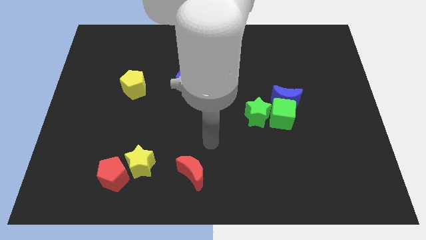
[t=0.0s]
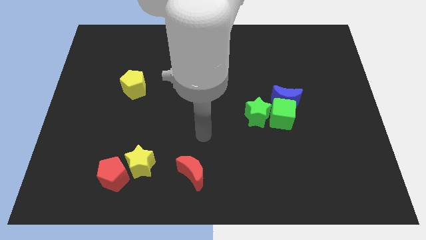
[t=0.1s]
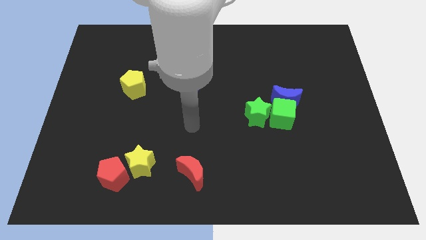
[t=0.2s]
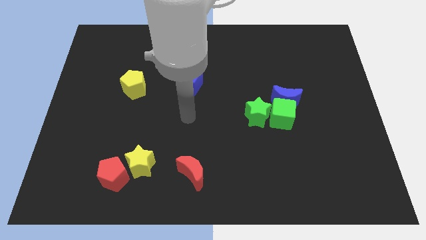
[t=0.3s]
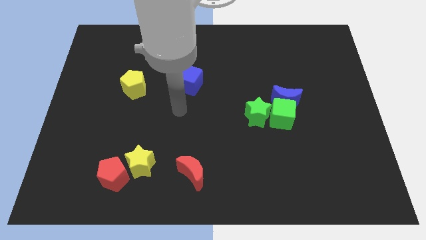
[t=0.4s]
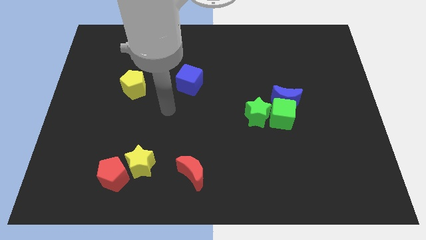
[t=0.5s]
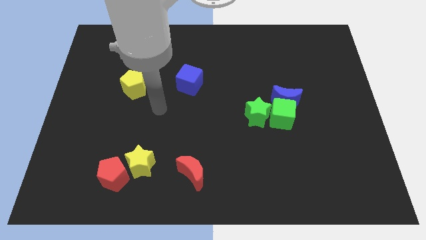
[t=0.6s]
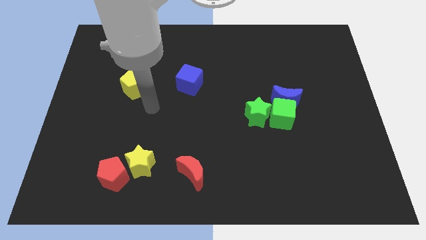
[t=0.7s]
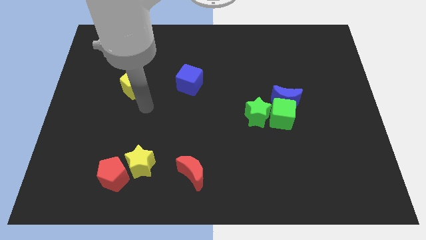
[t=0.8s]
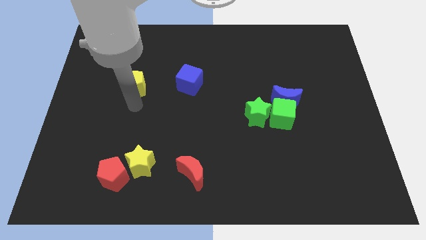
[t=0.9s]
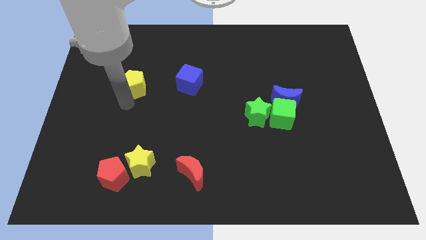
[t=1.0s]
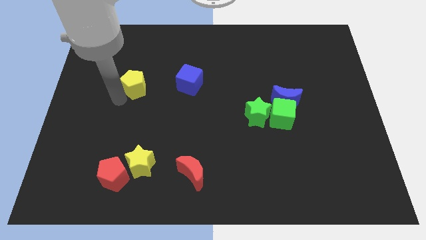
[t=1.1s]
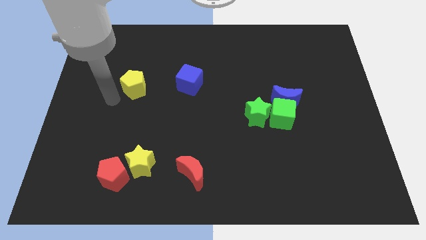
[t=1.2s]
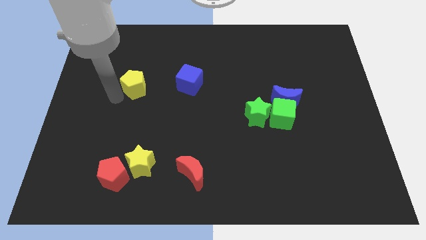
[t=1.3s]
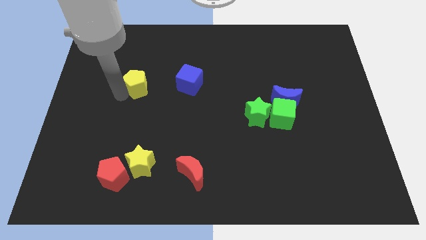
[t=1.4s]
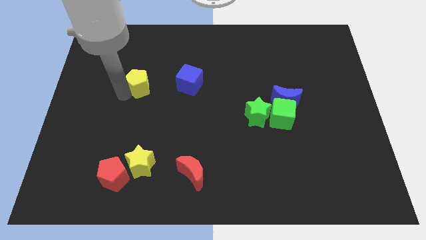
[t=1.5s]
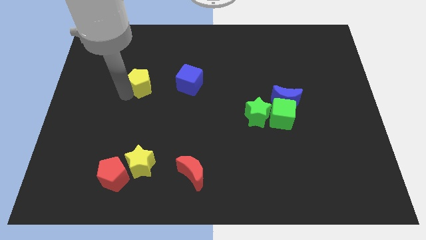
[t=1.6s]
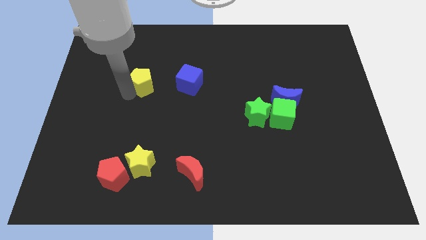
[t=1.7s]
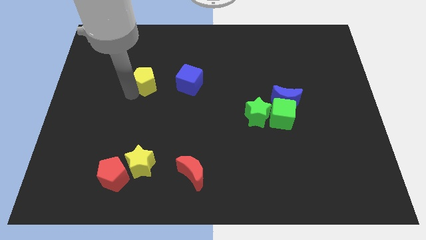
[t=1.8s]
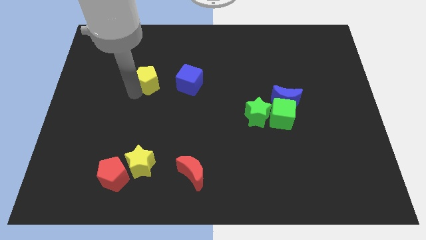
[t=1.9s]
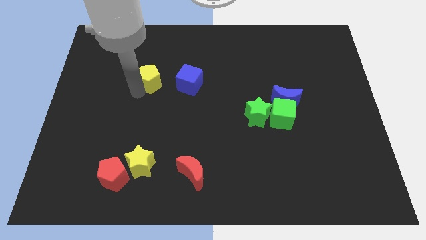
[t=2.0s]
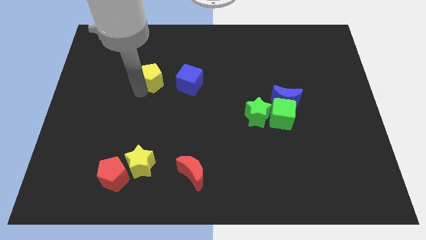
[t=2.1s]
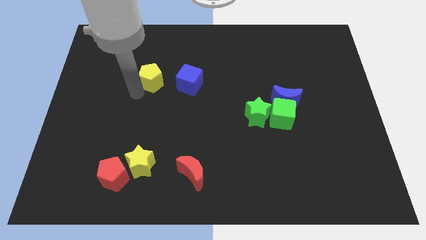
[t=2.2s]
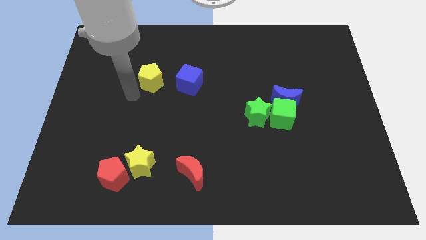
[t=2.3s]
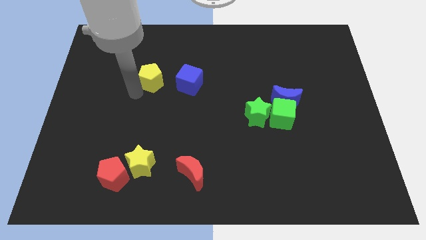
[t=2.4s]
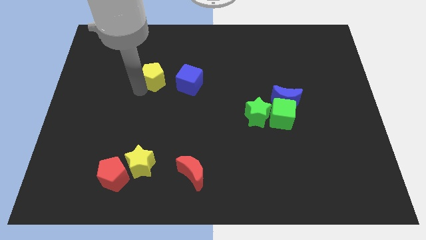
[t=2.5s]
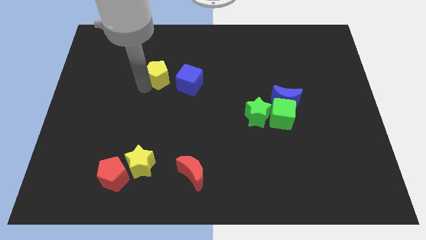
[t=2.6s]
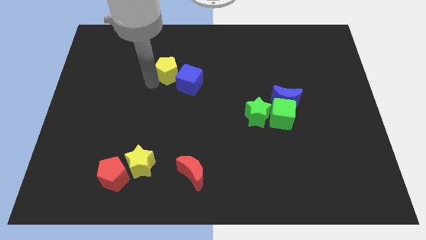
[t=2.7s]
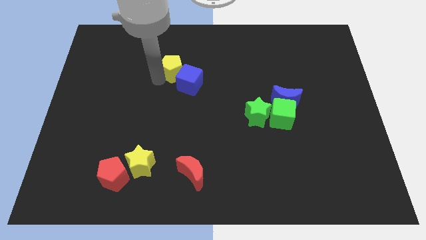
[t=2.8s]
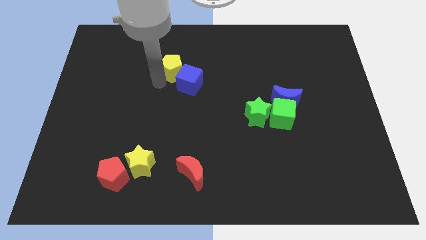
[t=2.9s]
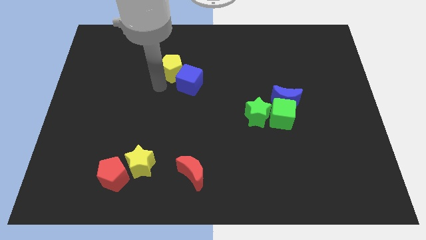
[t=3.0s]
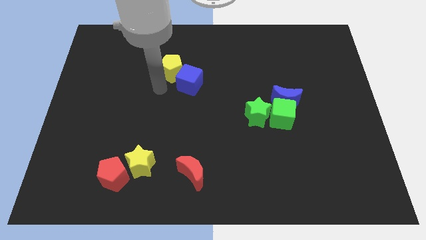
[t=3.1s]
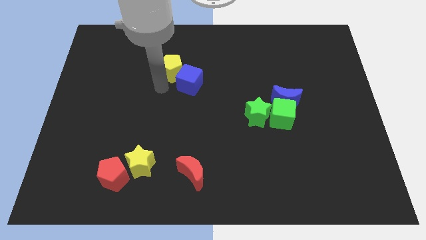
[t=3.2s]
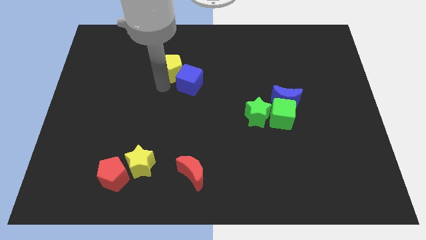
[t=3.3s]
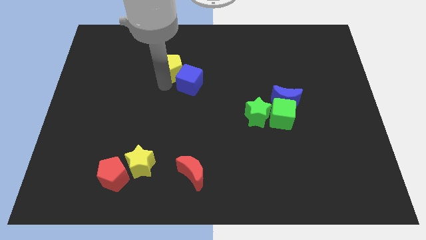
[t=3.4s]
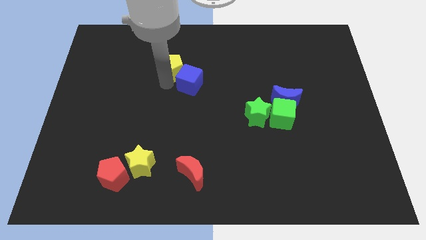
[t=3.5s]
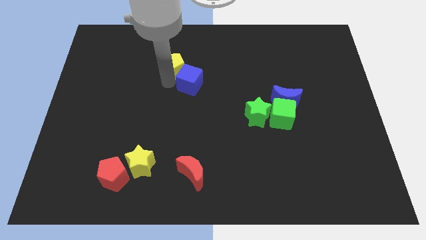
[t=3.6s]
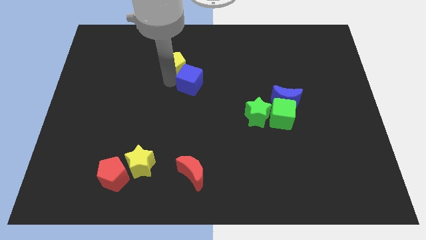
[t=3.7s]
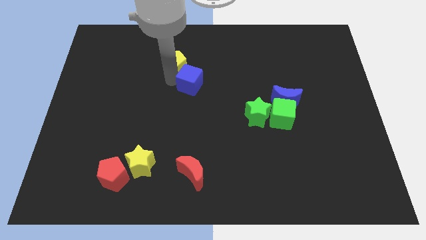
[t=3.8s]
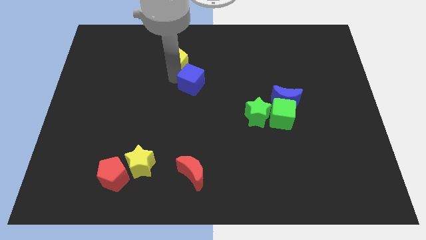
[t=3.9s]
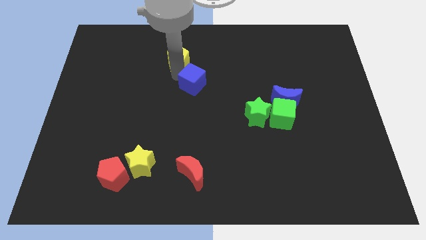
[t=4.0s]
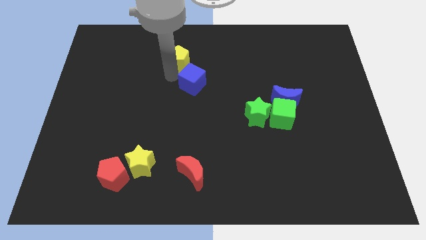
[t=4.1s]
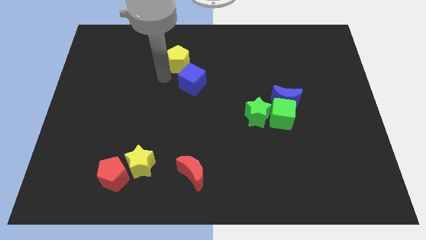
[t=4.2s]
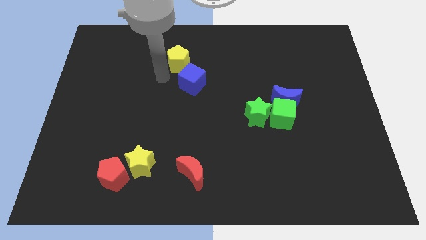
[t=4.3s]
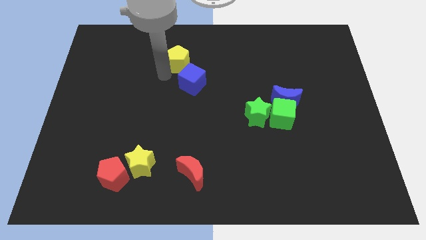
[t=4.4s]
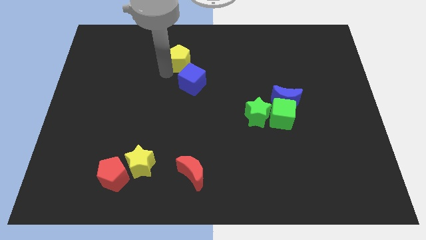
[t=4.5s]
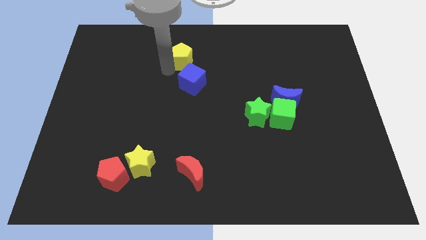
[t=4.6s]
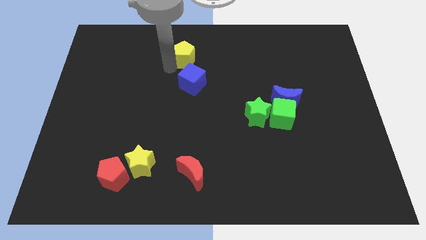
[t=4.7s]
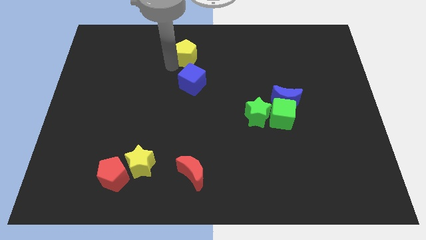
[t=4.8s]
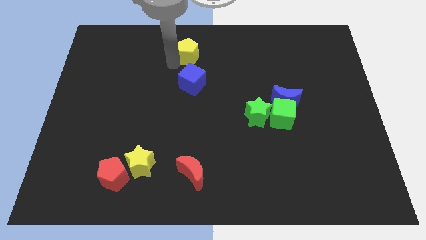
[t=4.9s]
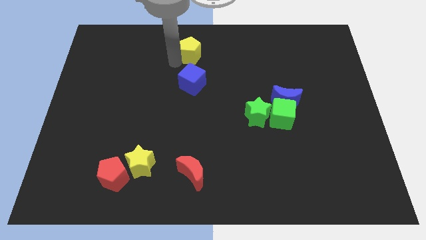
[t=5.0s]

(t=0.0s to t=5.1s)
push the yellow pentagon to the top

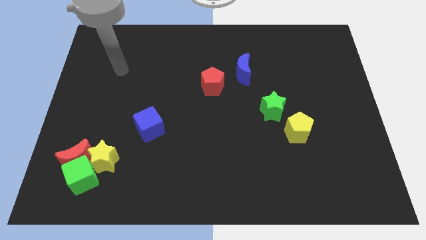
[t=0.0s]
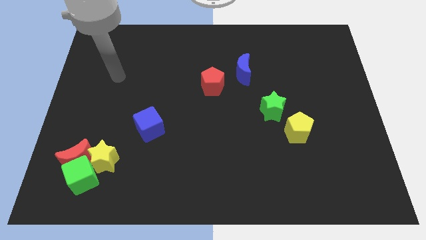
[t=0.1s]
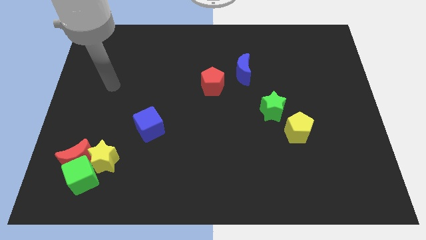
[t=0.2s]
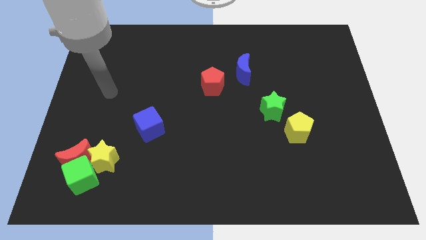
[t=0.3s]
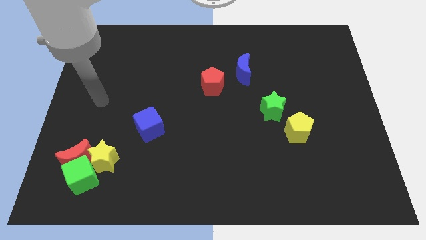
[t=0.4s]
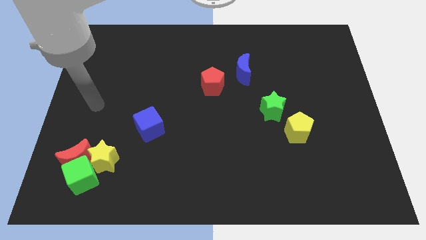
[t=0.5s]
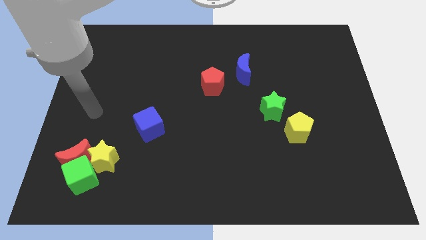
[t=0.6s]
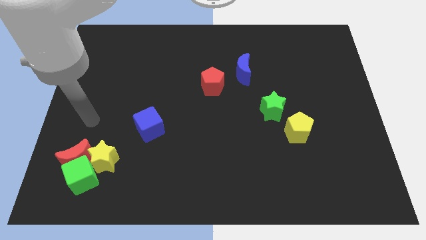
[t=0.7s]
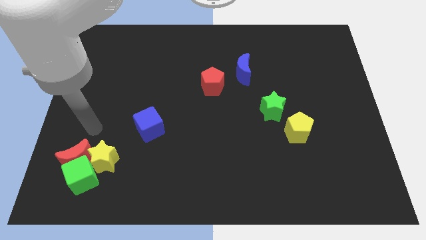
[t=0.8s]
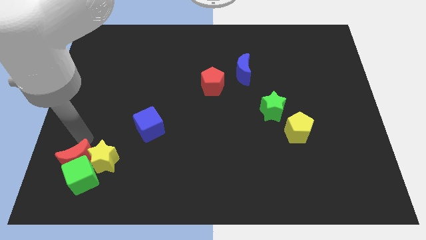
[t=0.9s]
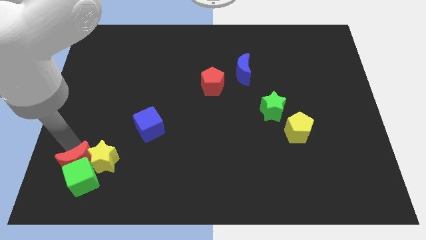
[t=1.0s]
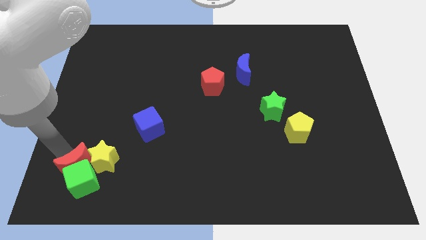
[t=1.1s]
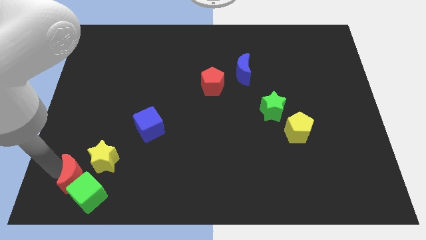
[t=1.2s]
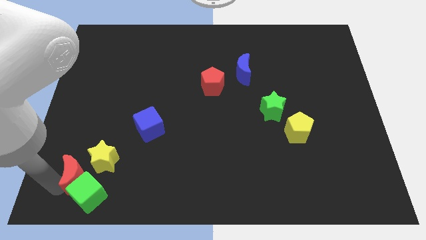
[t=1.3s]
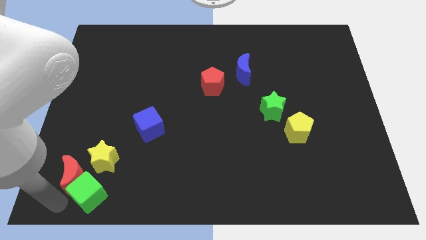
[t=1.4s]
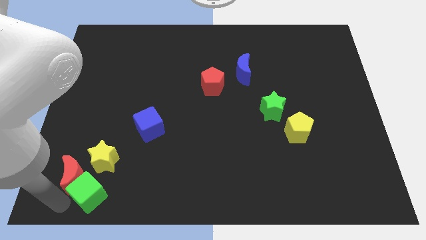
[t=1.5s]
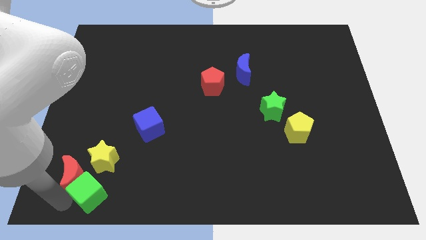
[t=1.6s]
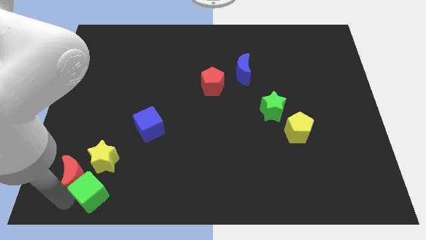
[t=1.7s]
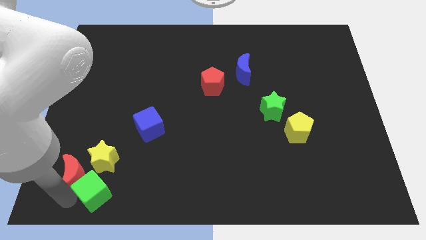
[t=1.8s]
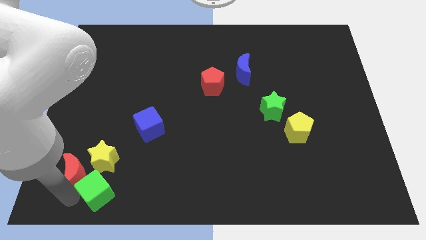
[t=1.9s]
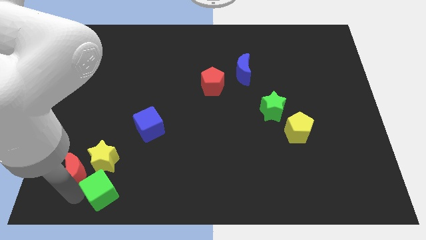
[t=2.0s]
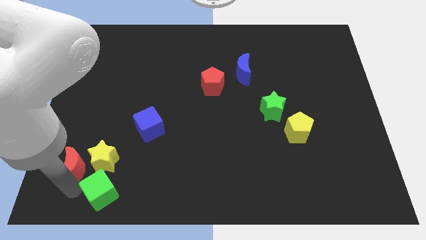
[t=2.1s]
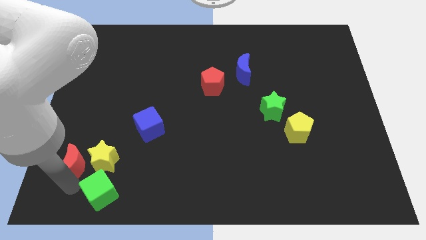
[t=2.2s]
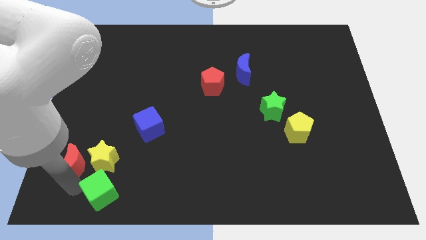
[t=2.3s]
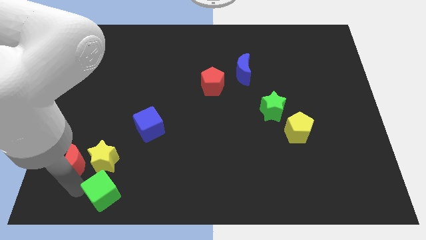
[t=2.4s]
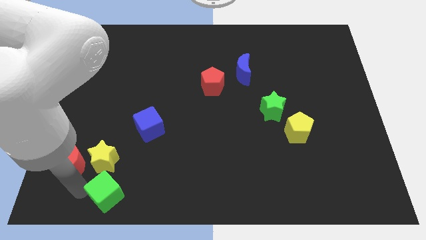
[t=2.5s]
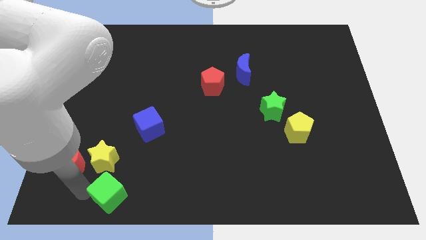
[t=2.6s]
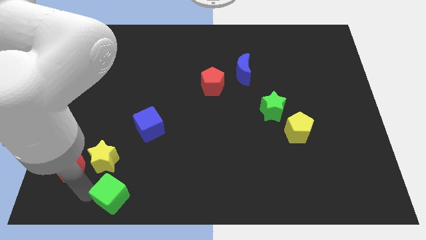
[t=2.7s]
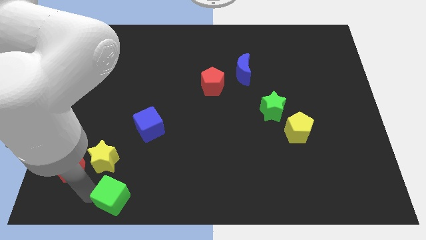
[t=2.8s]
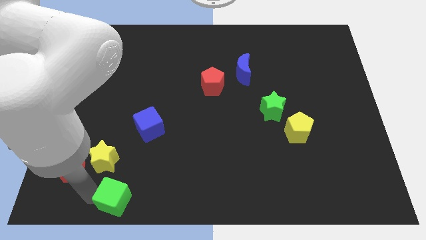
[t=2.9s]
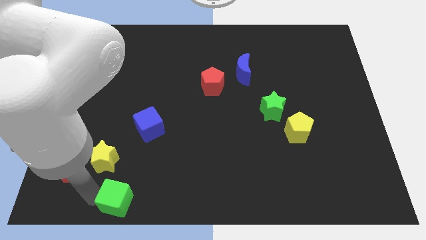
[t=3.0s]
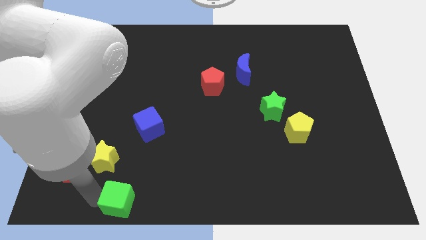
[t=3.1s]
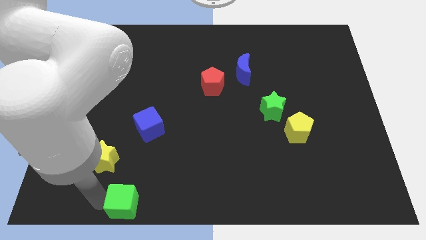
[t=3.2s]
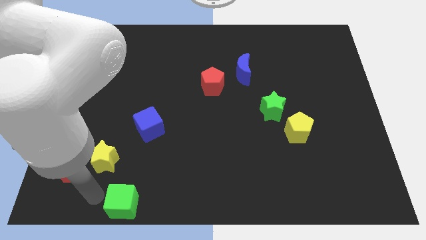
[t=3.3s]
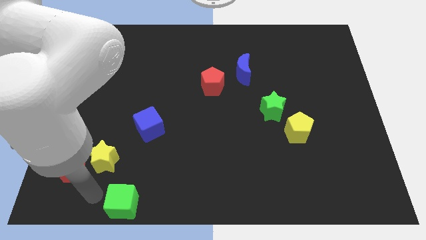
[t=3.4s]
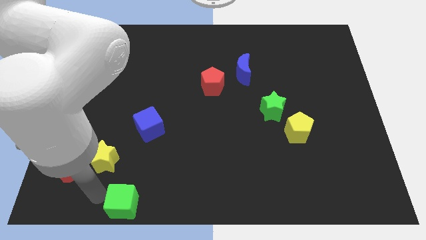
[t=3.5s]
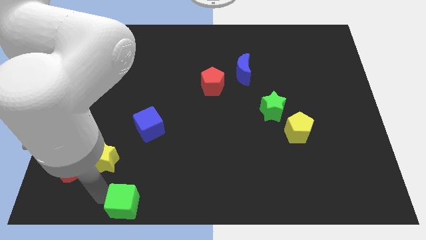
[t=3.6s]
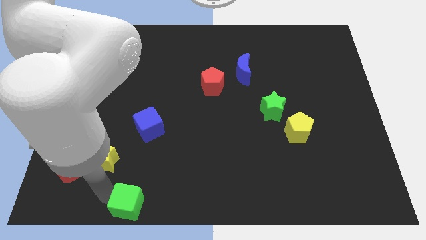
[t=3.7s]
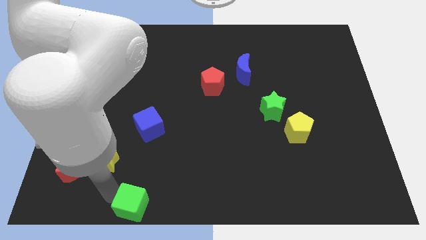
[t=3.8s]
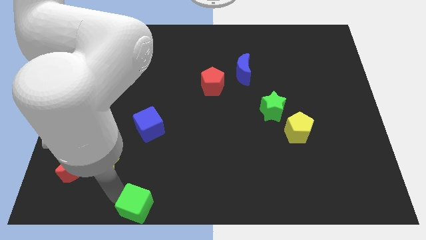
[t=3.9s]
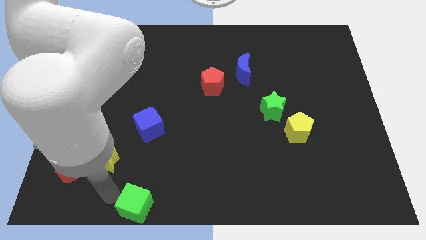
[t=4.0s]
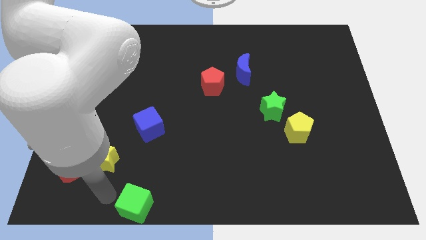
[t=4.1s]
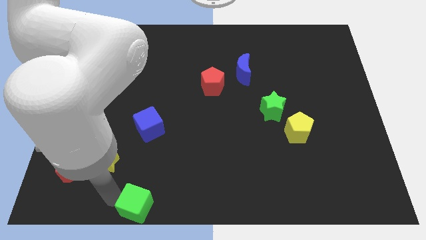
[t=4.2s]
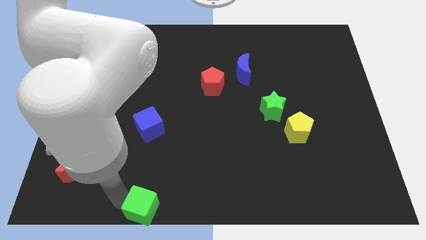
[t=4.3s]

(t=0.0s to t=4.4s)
push the green cube to the bottom side
